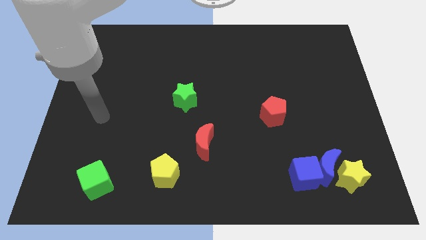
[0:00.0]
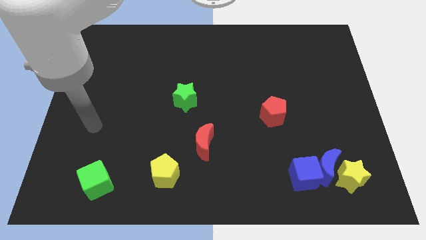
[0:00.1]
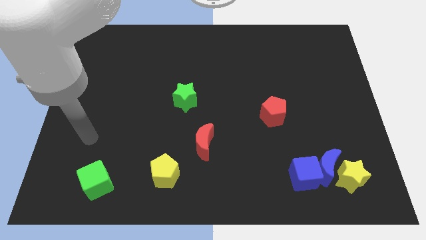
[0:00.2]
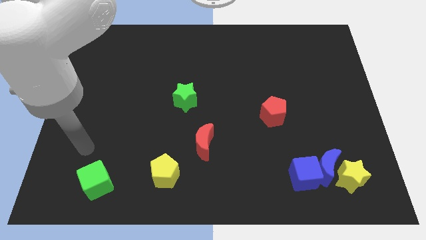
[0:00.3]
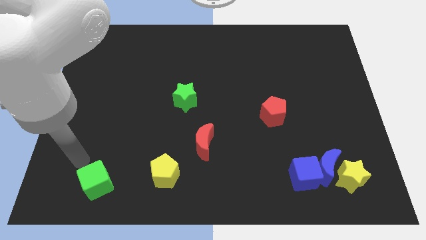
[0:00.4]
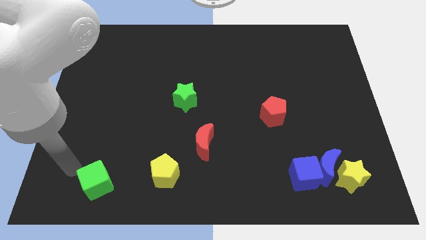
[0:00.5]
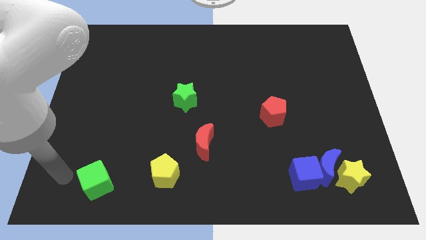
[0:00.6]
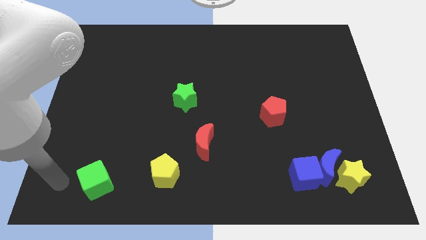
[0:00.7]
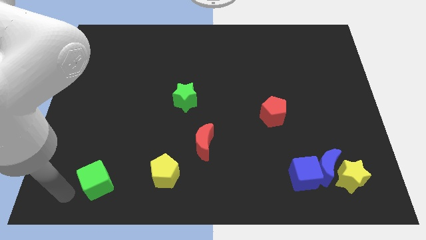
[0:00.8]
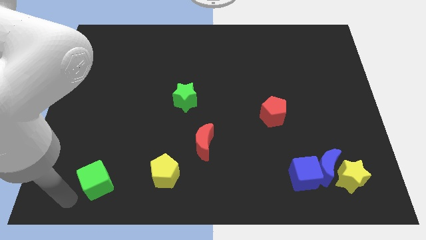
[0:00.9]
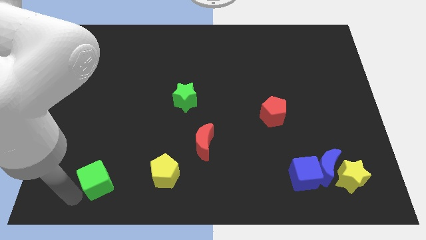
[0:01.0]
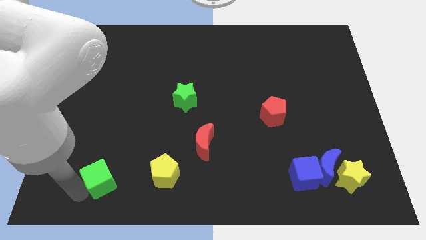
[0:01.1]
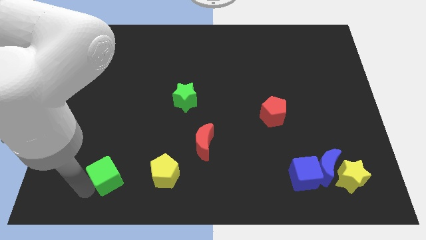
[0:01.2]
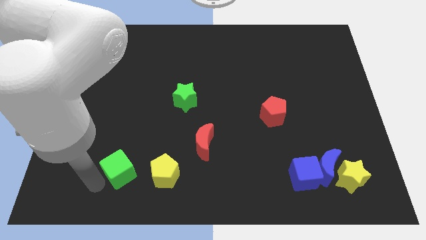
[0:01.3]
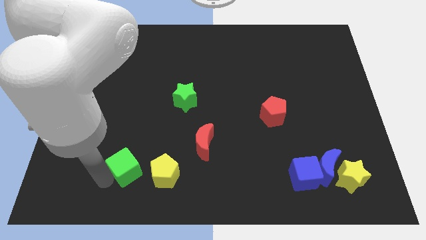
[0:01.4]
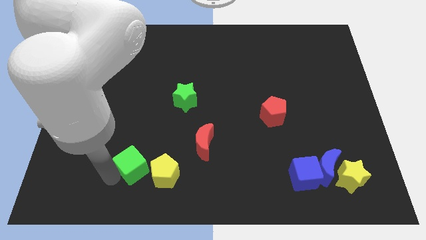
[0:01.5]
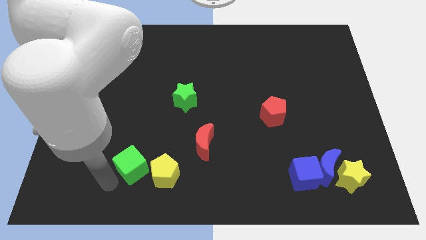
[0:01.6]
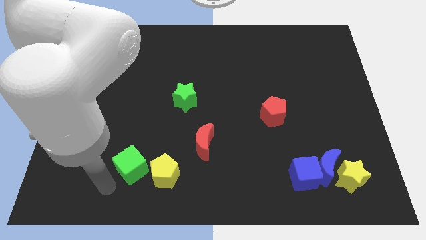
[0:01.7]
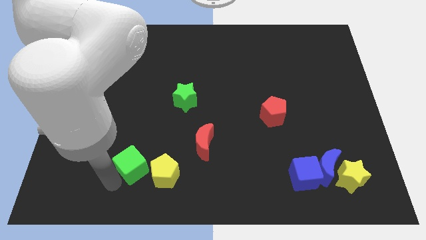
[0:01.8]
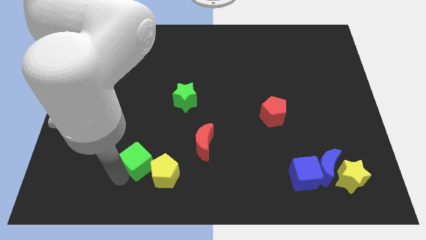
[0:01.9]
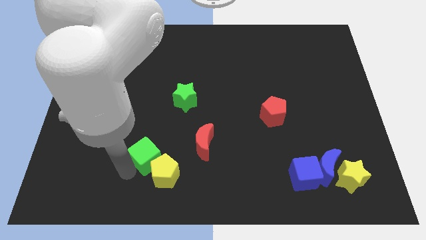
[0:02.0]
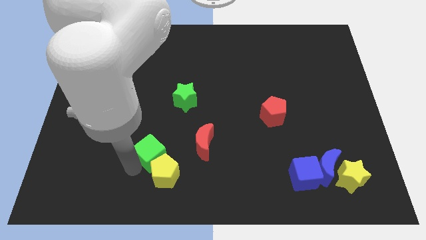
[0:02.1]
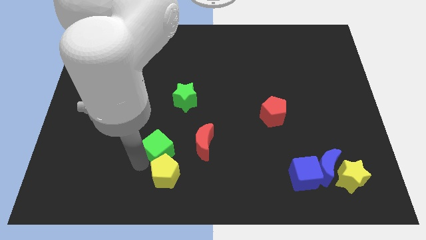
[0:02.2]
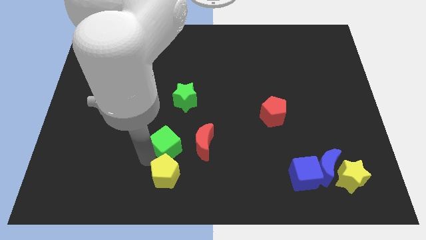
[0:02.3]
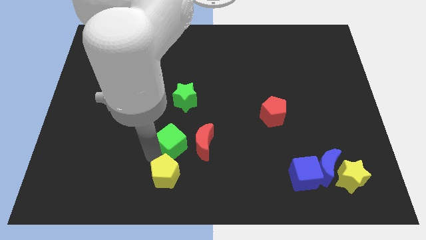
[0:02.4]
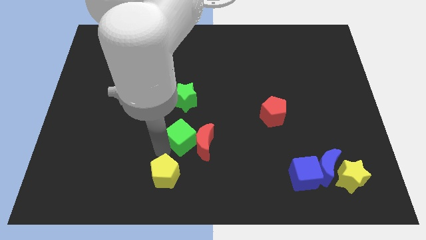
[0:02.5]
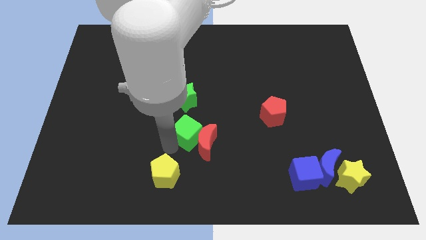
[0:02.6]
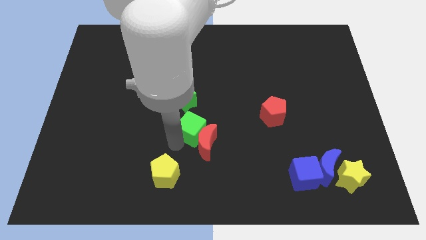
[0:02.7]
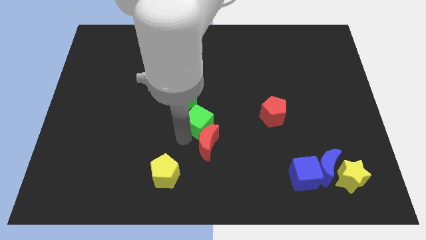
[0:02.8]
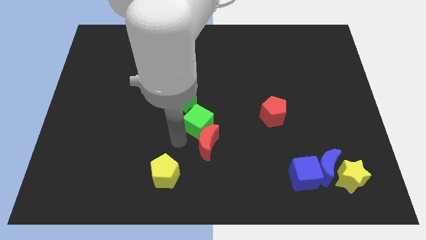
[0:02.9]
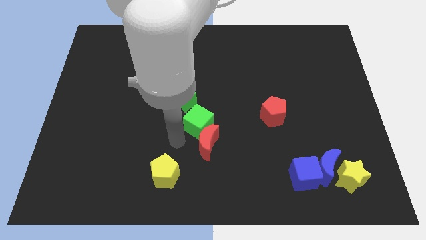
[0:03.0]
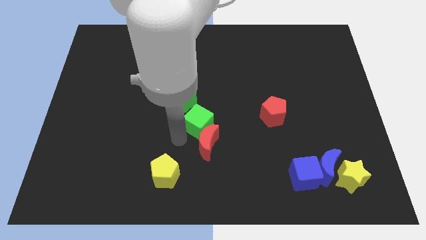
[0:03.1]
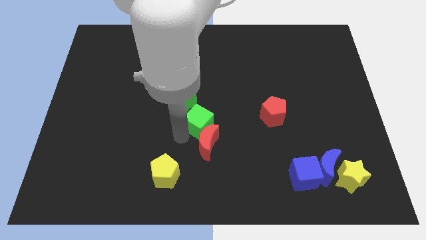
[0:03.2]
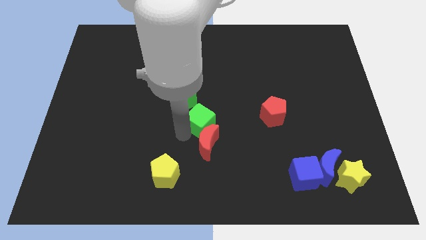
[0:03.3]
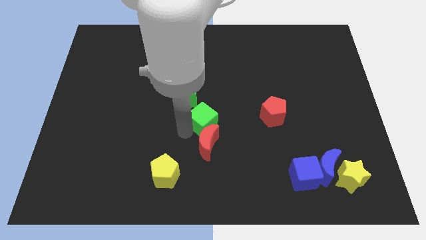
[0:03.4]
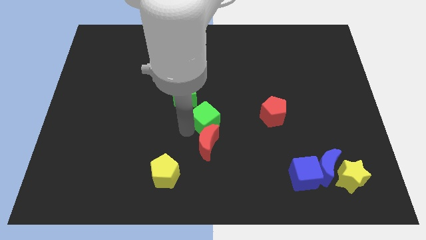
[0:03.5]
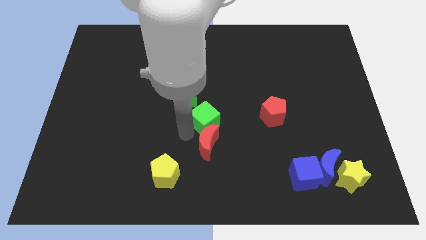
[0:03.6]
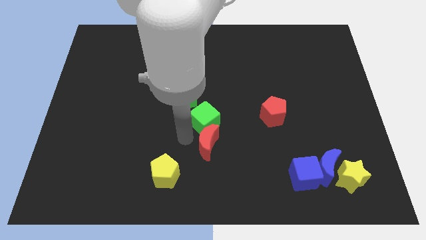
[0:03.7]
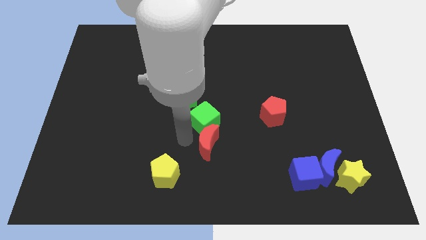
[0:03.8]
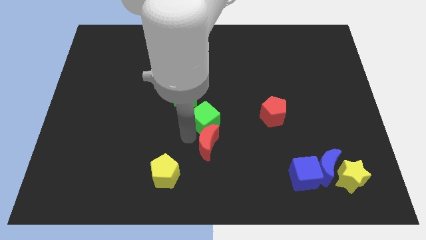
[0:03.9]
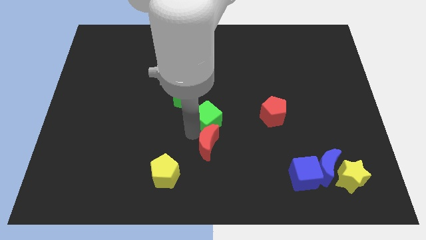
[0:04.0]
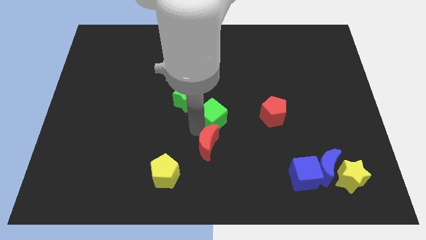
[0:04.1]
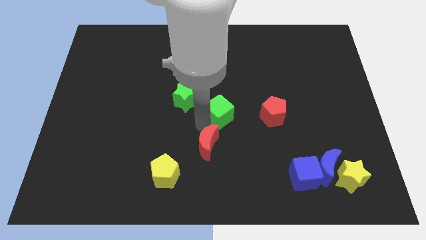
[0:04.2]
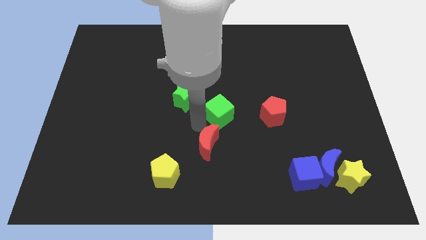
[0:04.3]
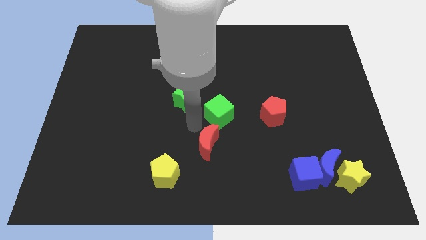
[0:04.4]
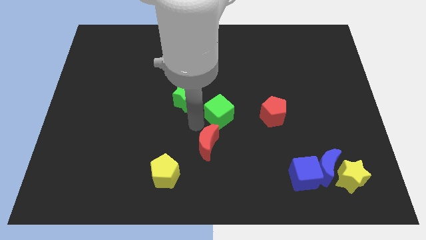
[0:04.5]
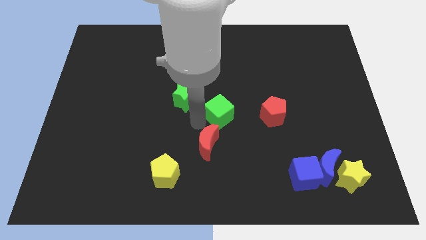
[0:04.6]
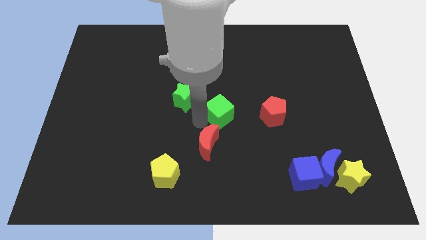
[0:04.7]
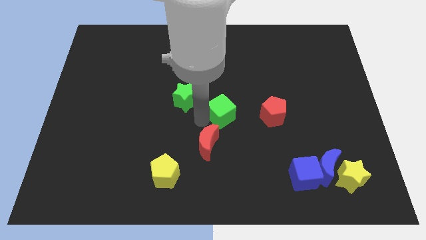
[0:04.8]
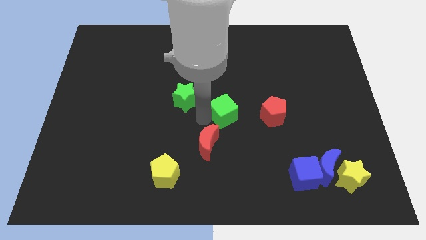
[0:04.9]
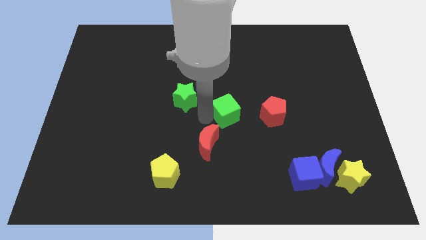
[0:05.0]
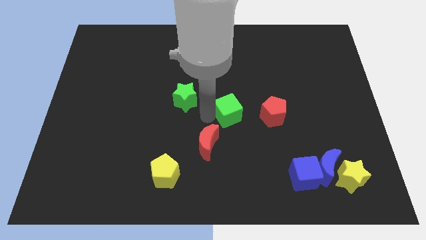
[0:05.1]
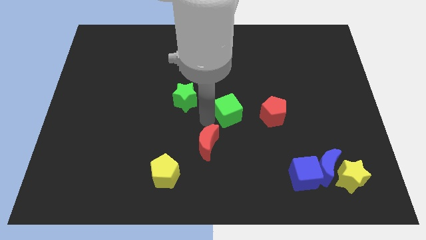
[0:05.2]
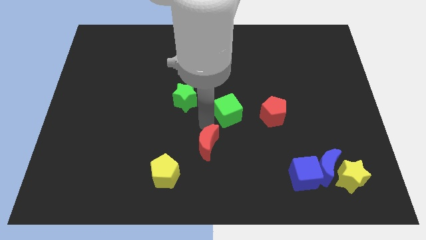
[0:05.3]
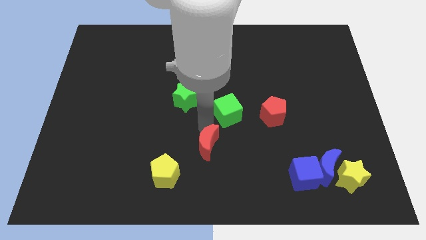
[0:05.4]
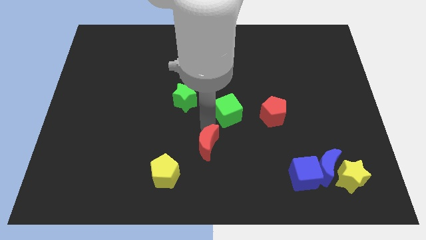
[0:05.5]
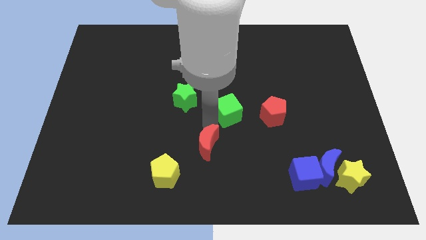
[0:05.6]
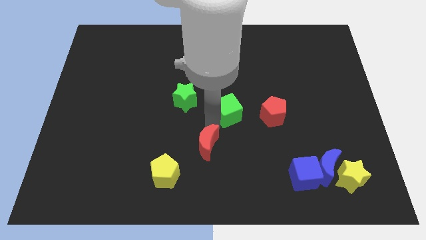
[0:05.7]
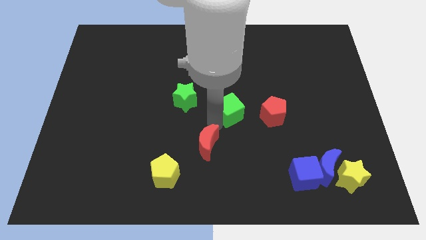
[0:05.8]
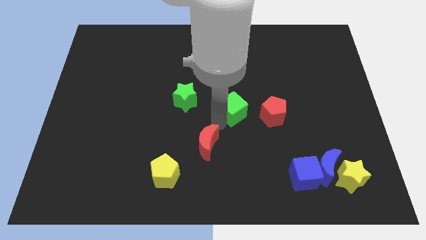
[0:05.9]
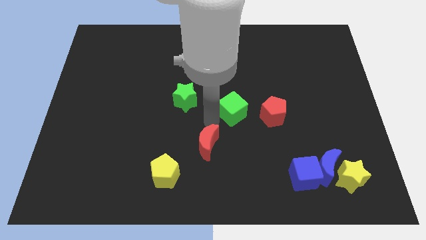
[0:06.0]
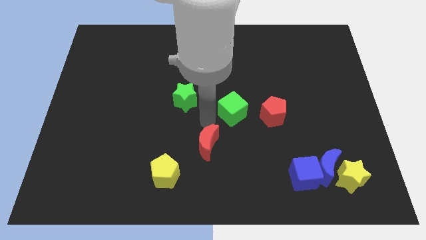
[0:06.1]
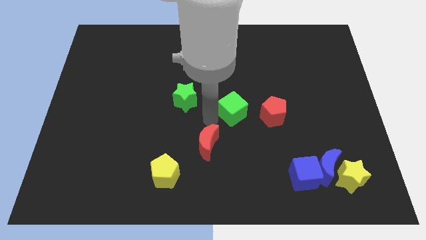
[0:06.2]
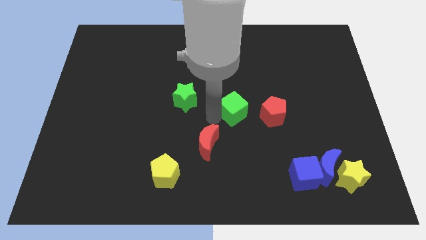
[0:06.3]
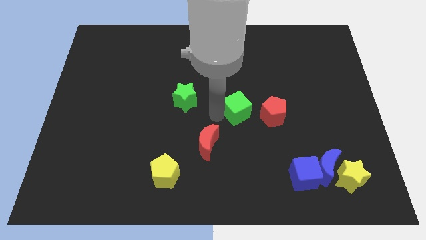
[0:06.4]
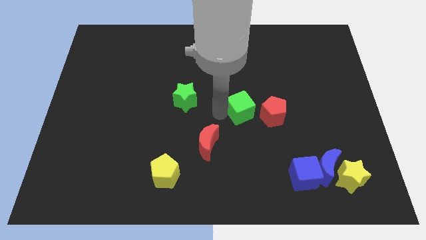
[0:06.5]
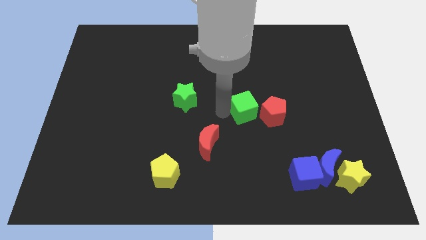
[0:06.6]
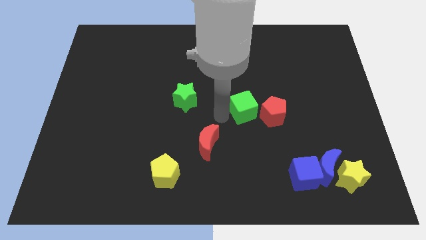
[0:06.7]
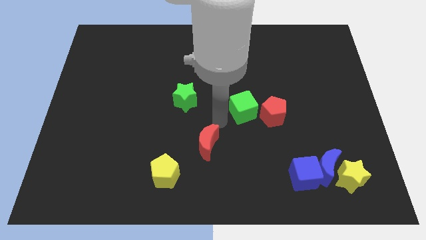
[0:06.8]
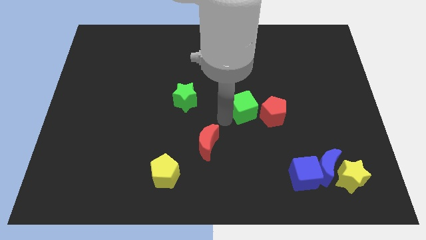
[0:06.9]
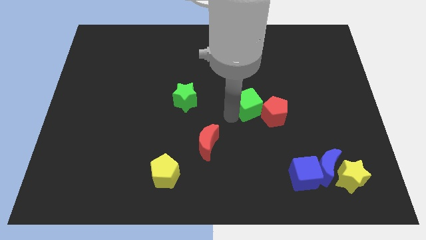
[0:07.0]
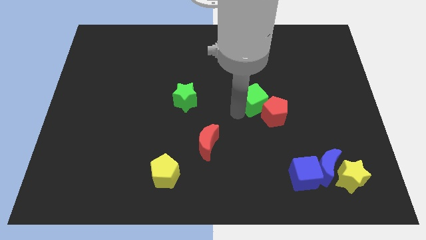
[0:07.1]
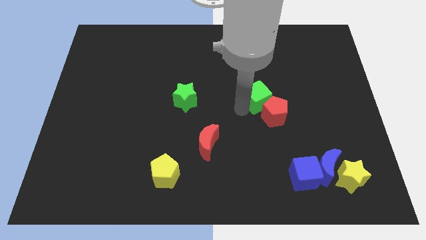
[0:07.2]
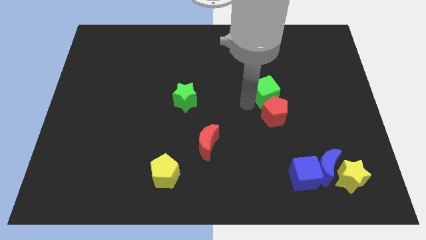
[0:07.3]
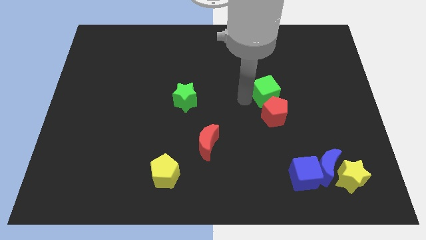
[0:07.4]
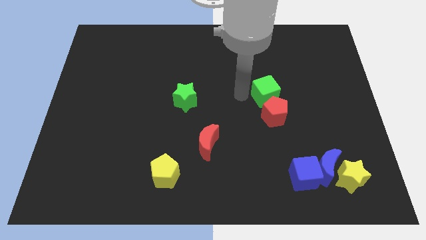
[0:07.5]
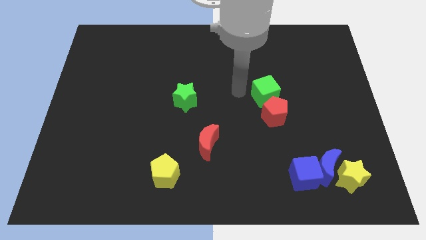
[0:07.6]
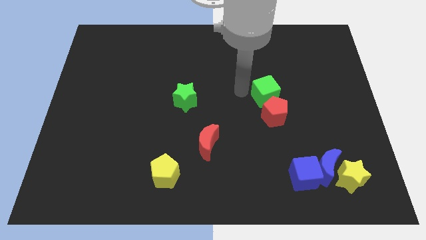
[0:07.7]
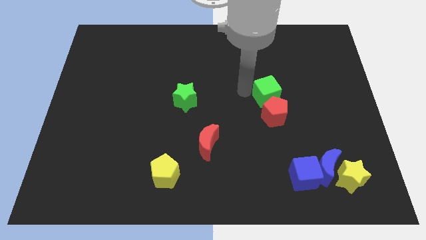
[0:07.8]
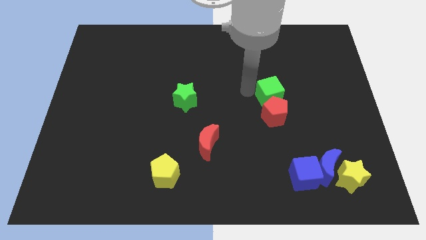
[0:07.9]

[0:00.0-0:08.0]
push the green cube to the top right side of the red pentagon
